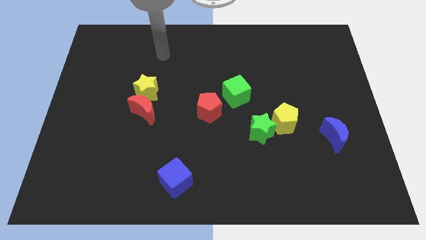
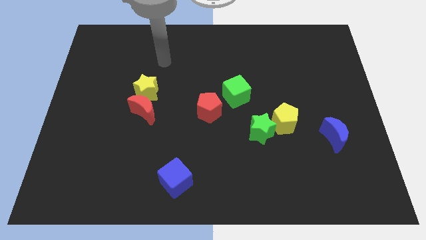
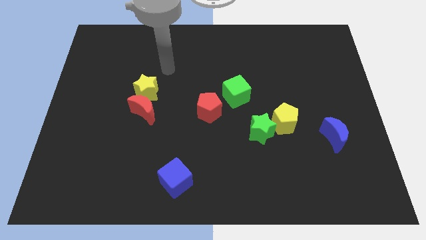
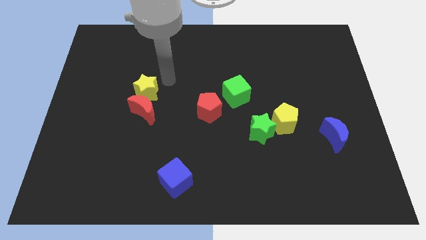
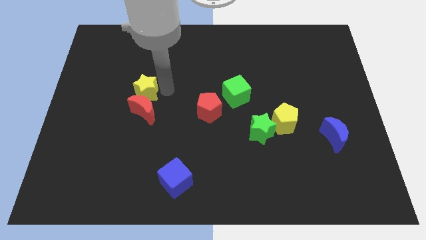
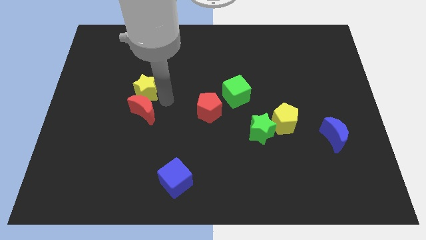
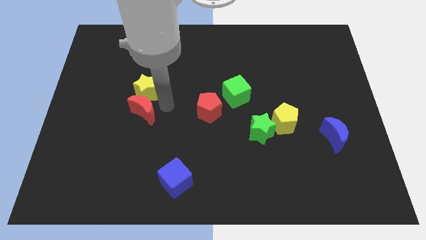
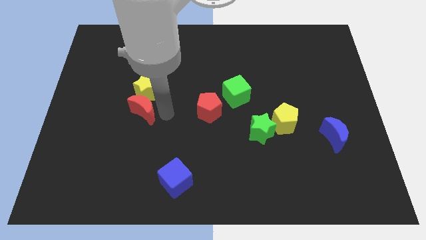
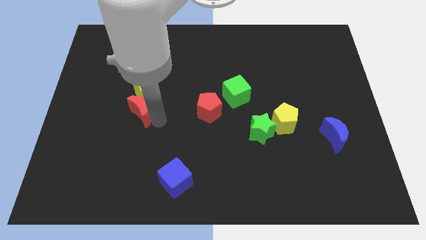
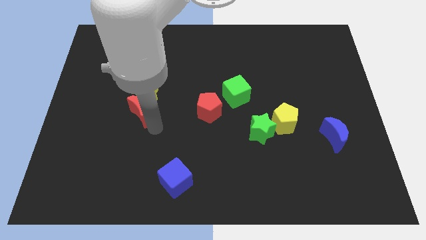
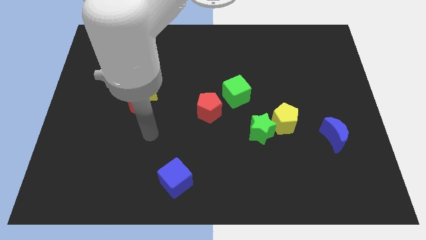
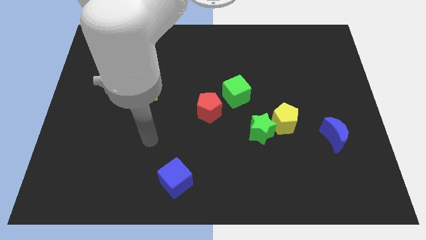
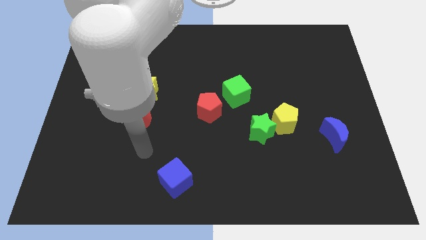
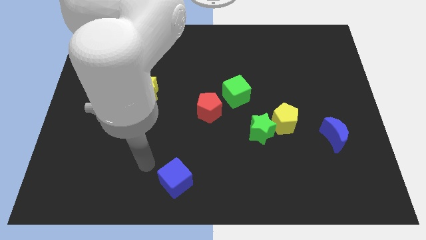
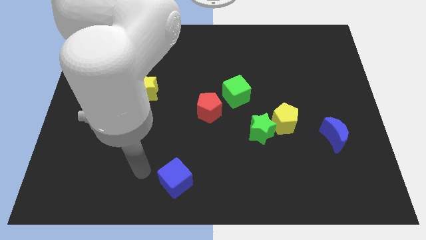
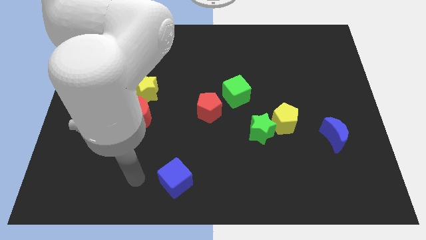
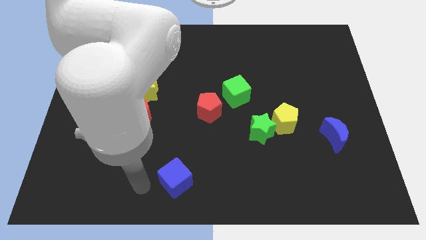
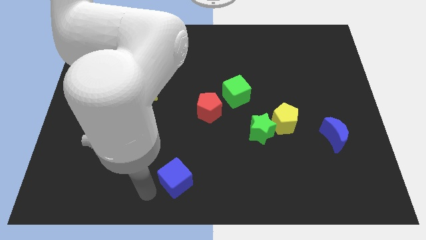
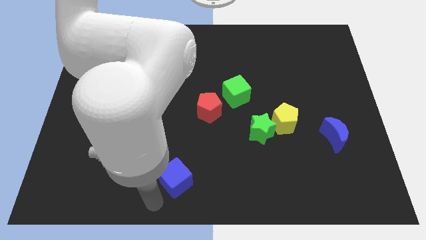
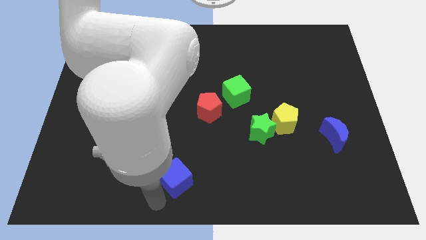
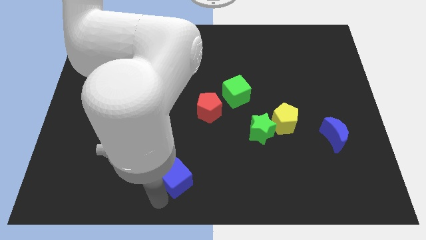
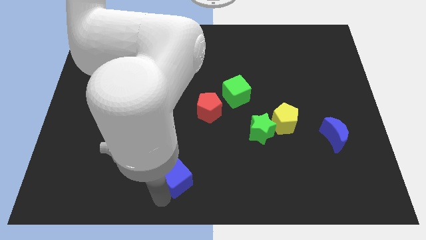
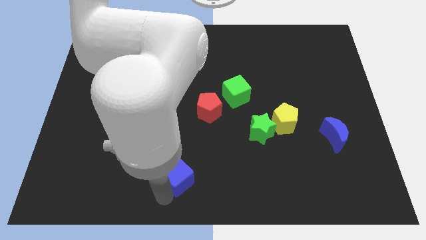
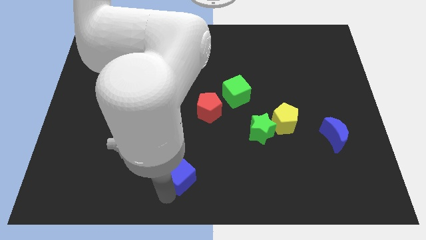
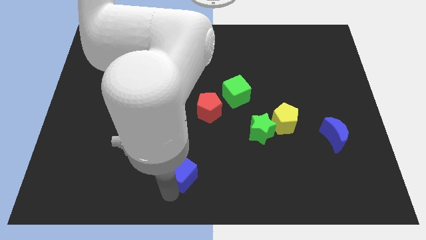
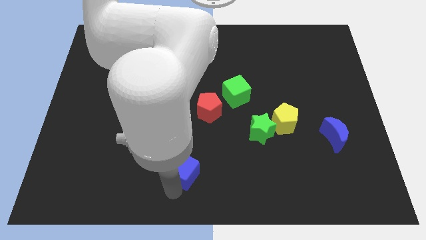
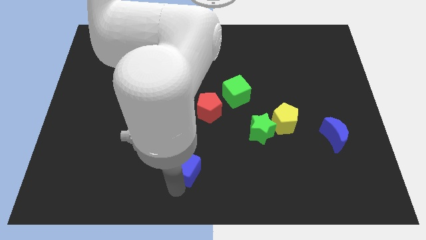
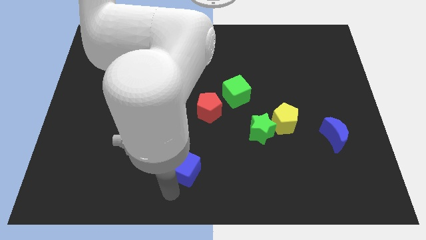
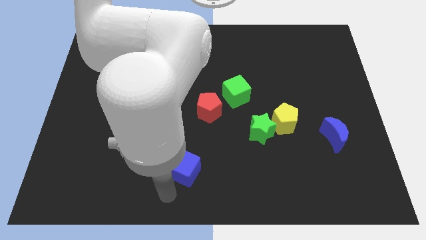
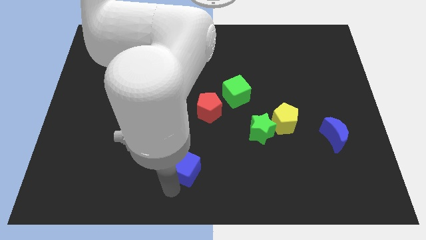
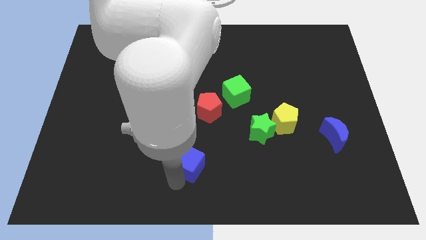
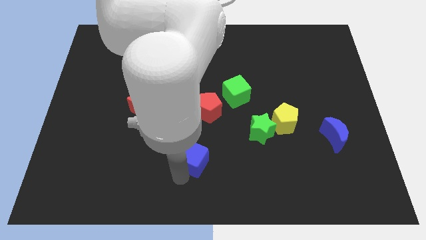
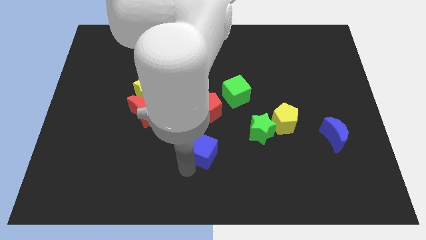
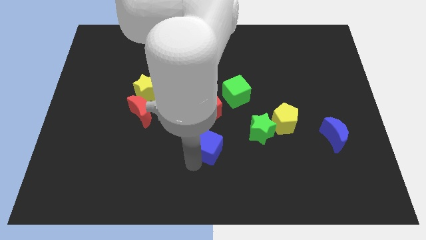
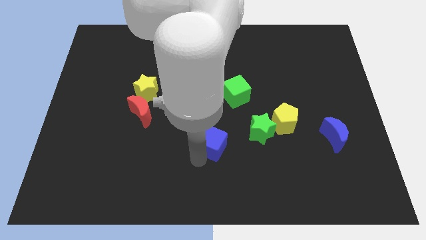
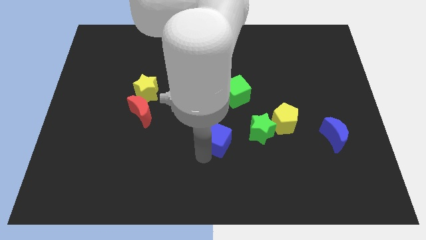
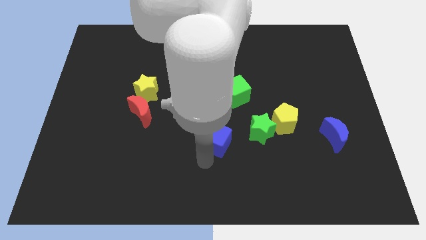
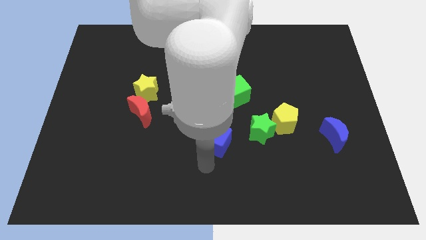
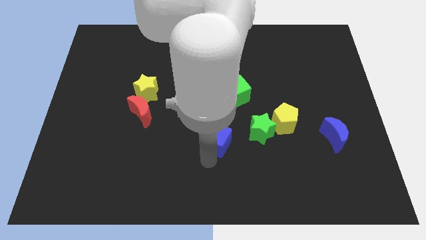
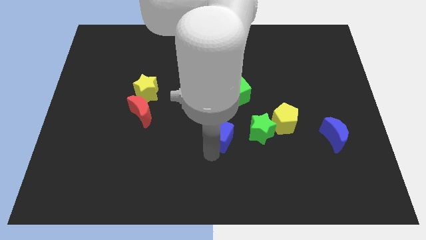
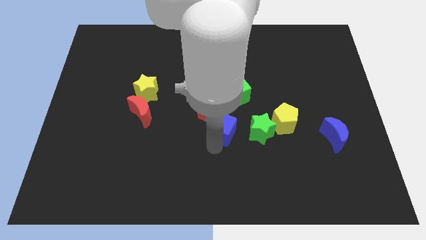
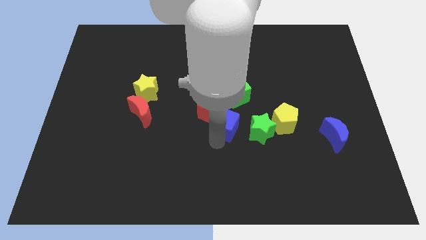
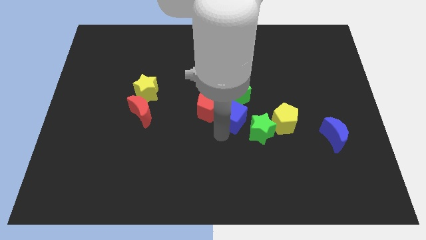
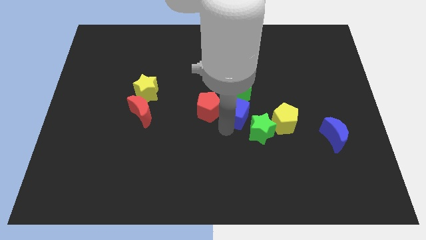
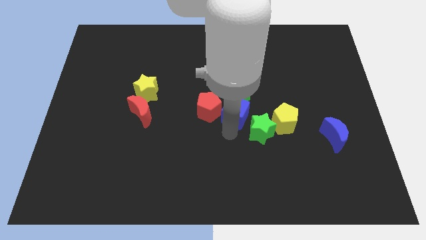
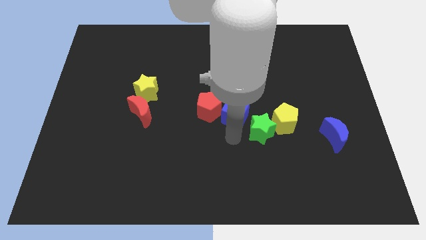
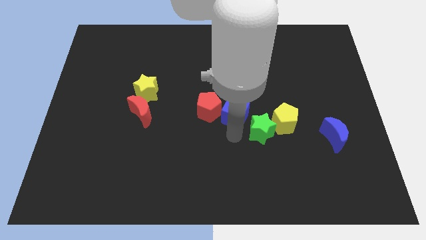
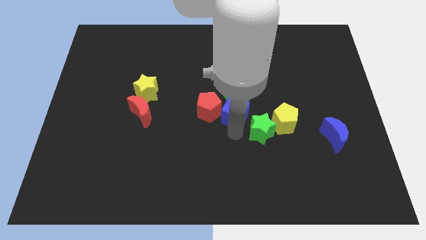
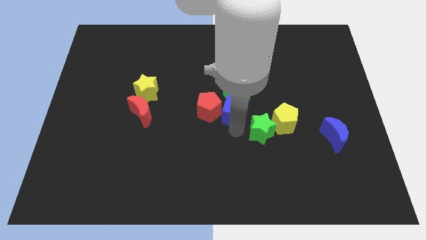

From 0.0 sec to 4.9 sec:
move the blue cube towards the green cube

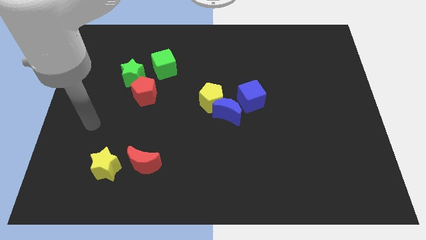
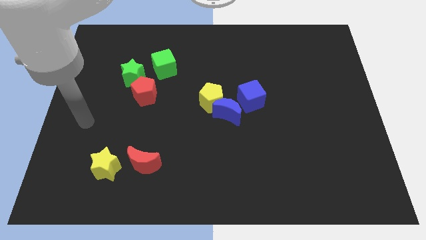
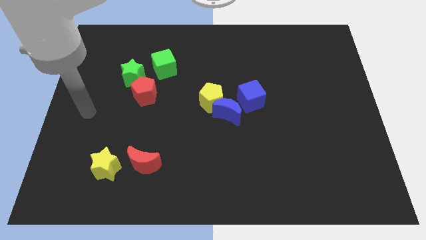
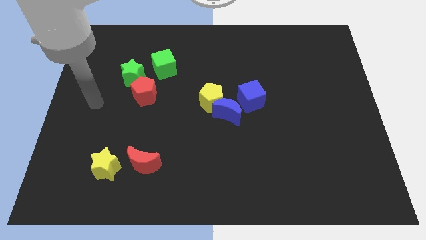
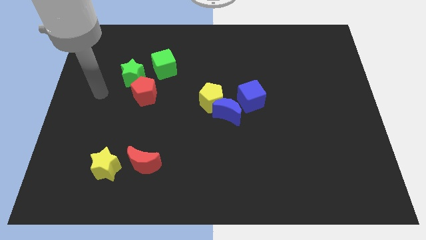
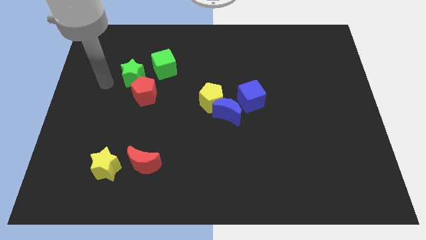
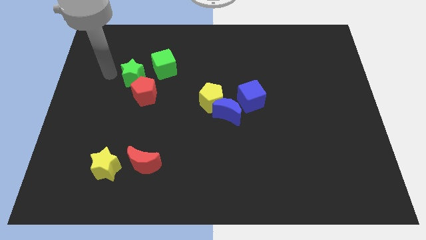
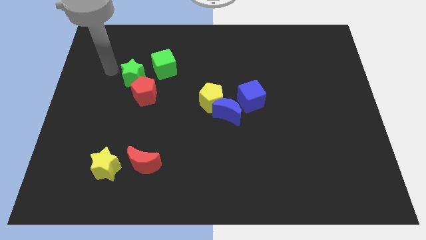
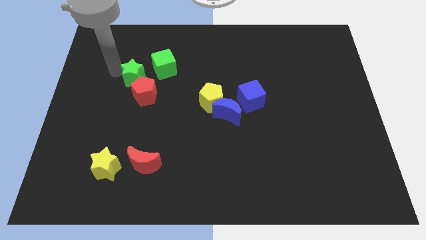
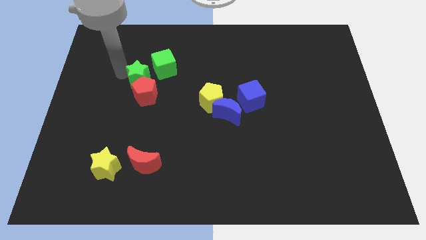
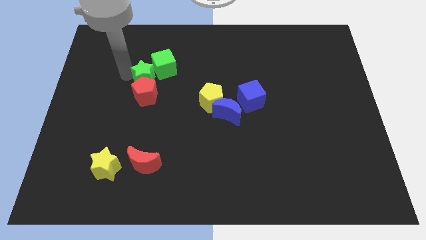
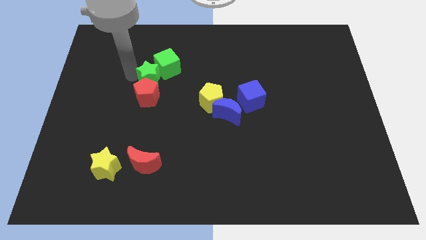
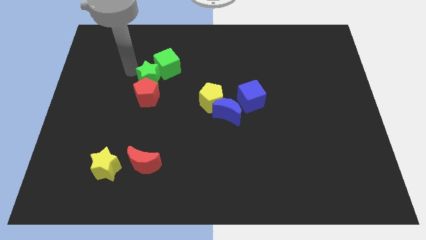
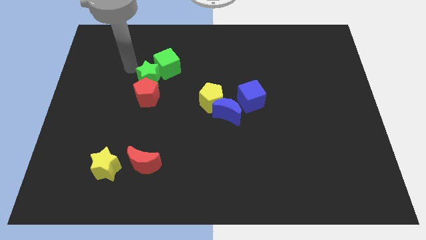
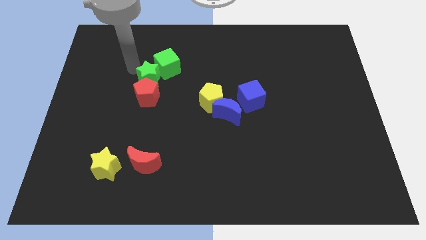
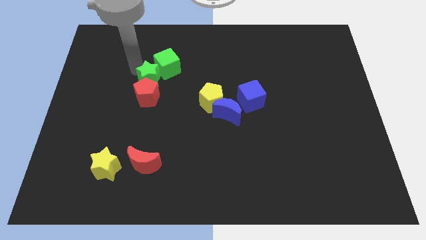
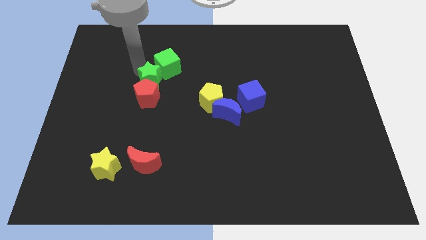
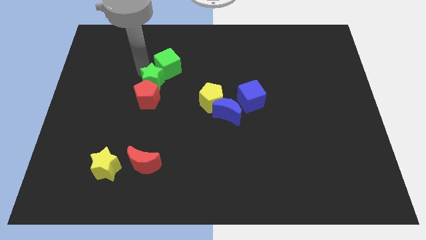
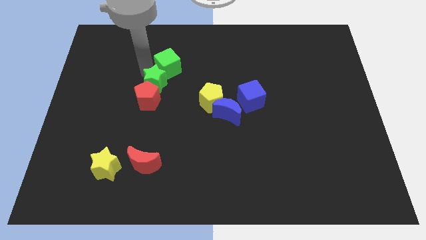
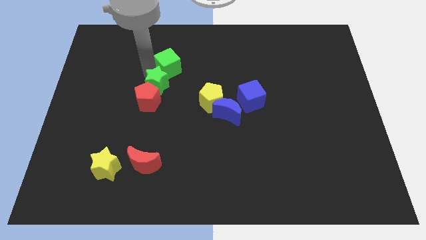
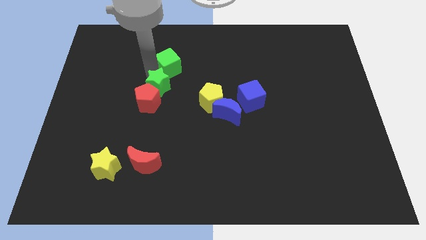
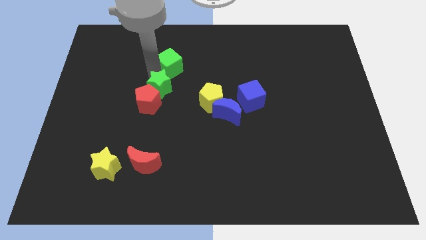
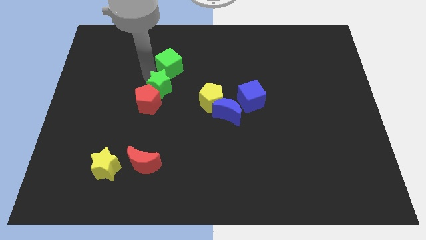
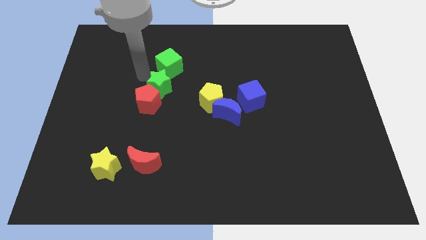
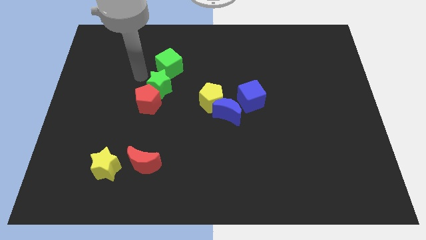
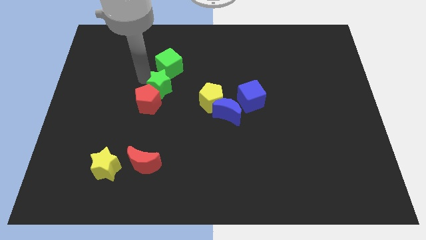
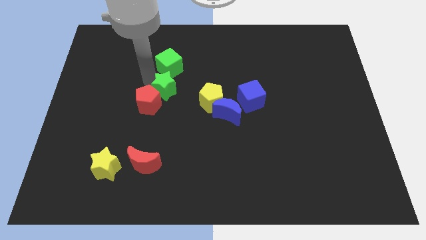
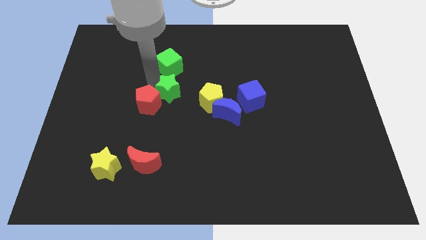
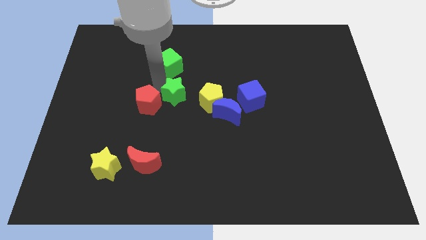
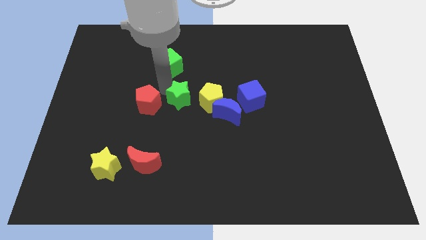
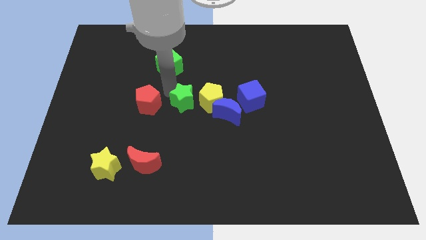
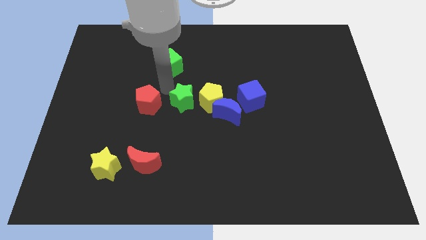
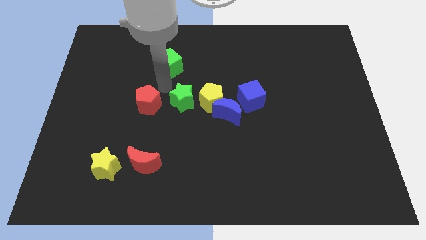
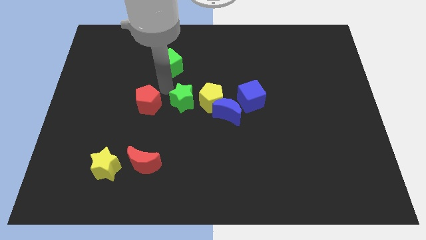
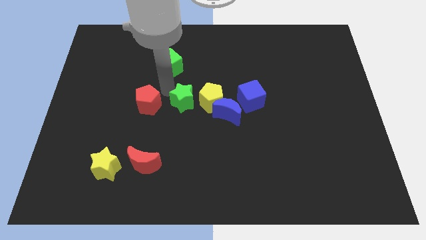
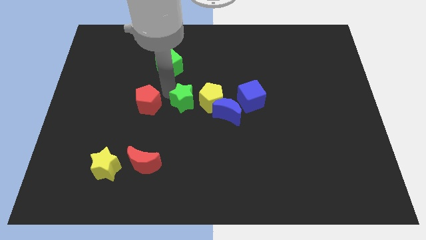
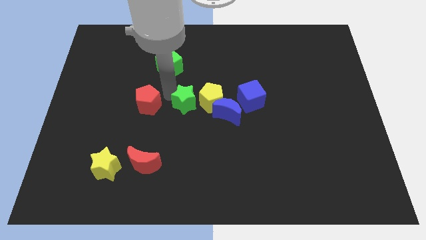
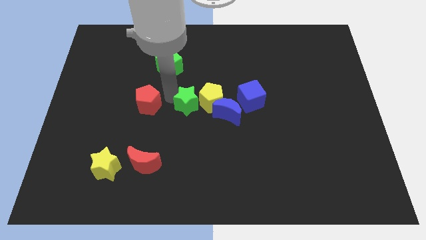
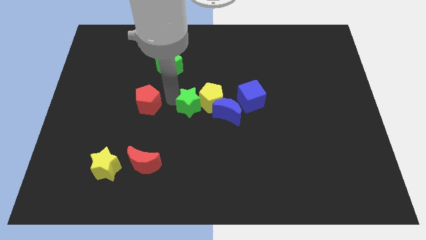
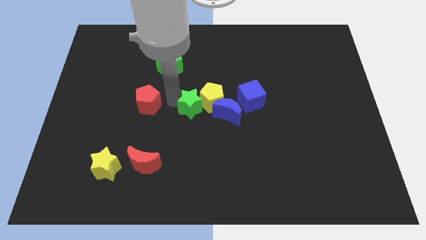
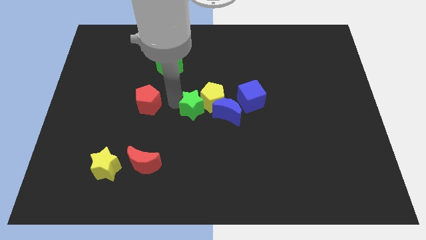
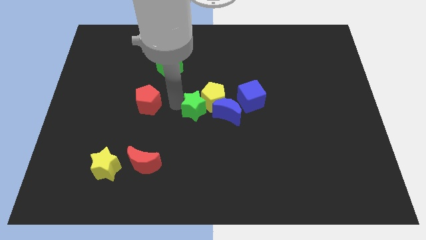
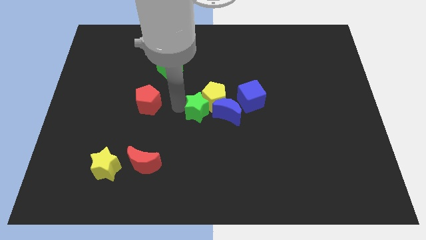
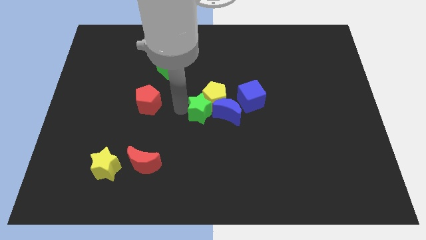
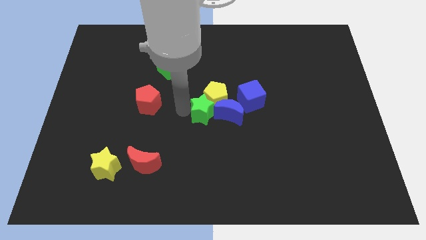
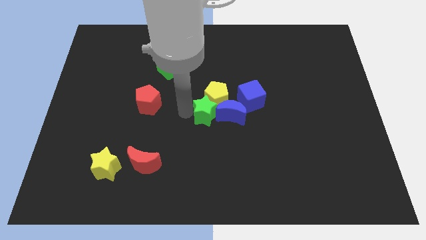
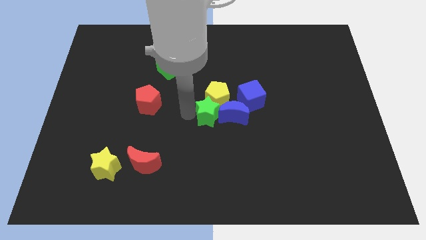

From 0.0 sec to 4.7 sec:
slide the green star to the blue moon
